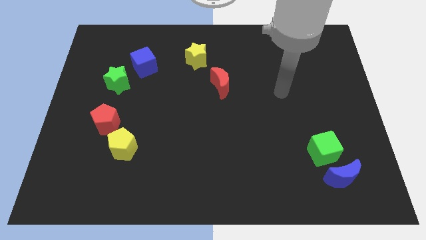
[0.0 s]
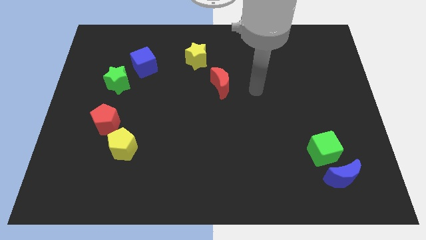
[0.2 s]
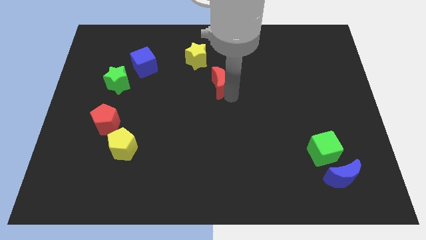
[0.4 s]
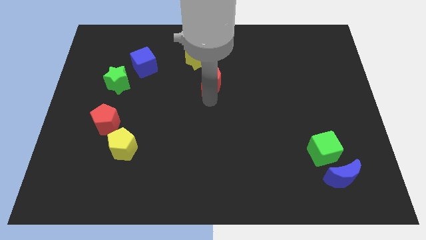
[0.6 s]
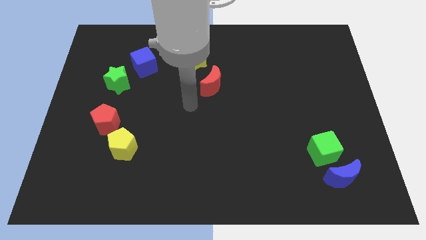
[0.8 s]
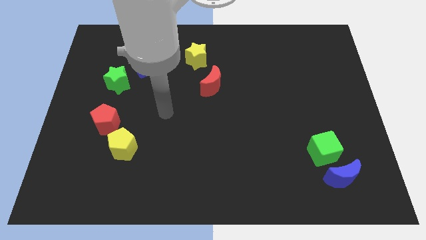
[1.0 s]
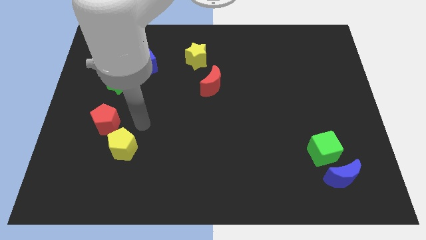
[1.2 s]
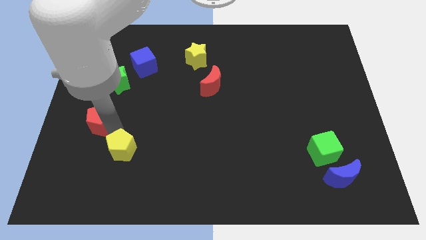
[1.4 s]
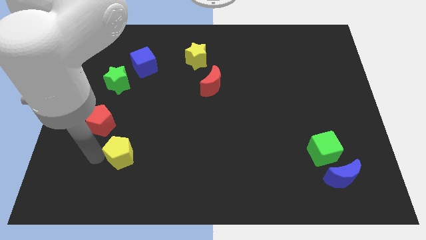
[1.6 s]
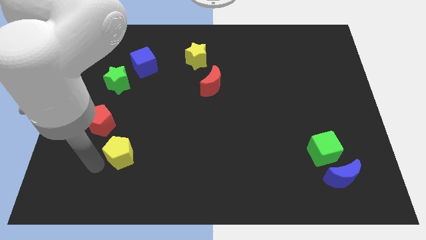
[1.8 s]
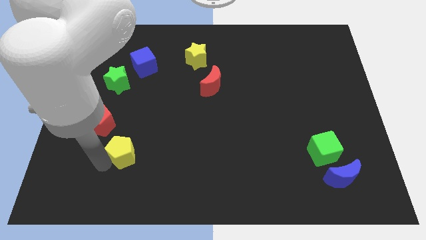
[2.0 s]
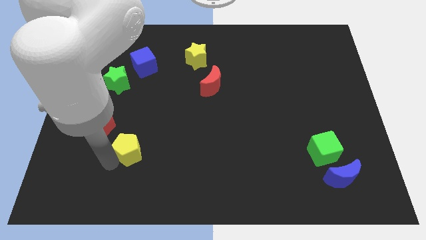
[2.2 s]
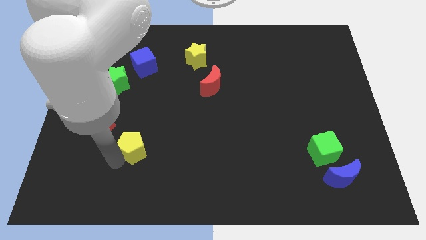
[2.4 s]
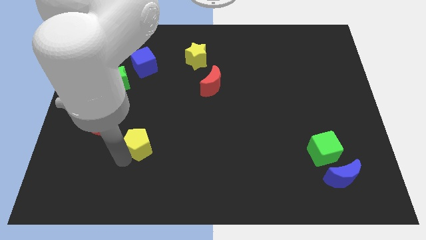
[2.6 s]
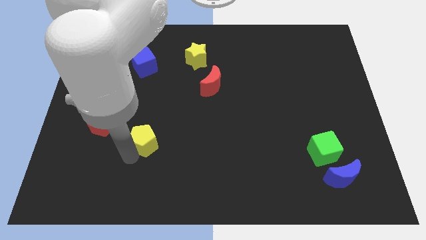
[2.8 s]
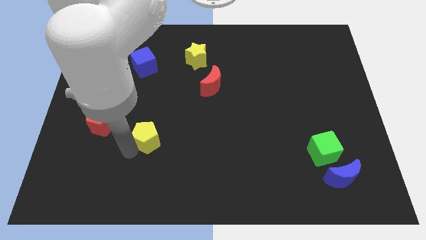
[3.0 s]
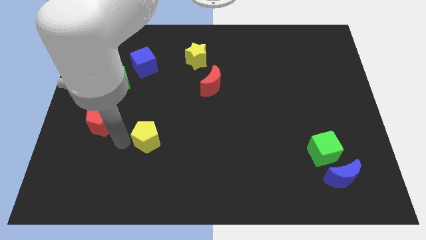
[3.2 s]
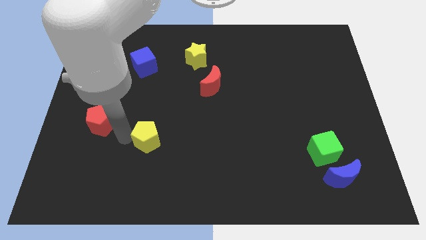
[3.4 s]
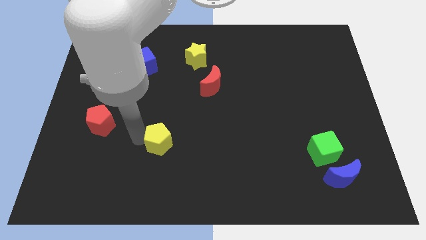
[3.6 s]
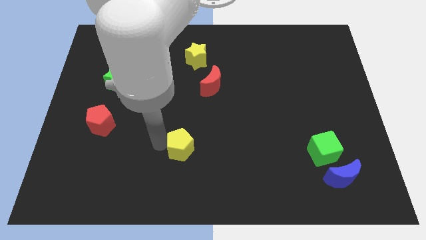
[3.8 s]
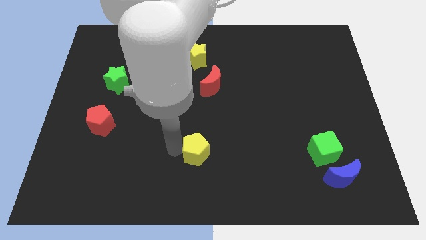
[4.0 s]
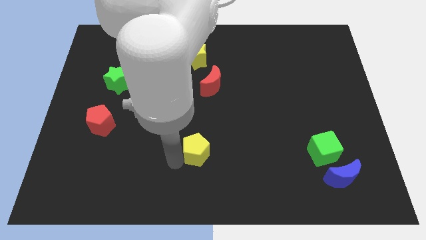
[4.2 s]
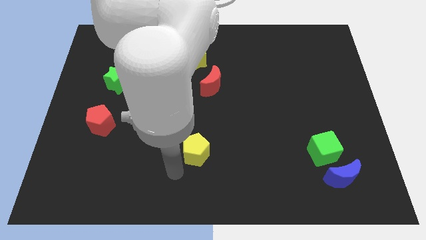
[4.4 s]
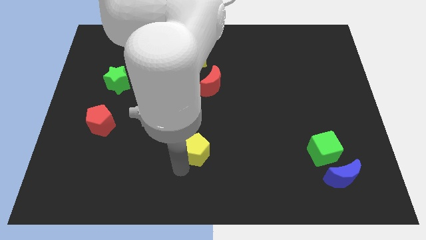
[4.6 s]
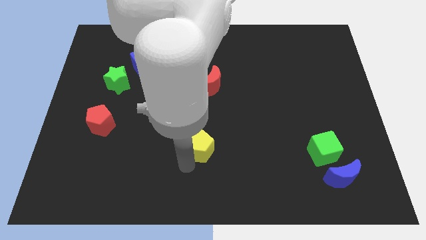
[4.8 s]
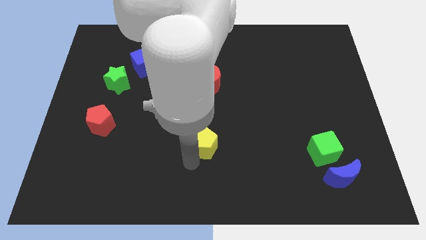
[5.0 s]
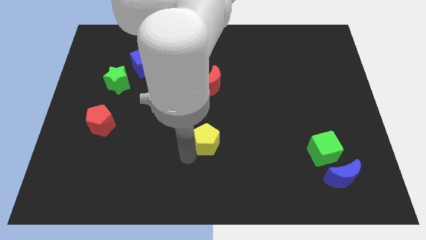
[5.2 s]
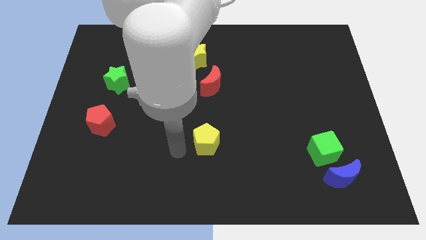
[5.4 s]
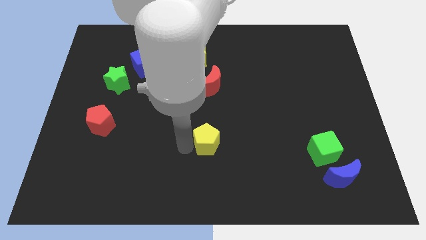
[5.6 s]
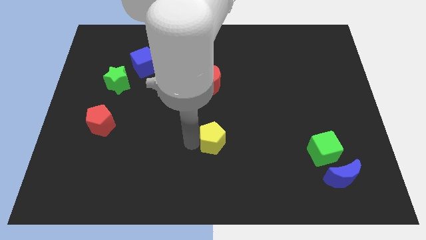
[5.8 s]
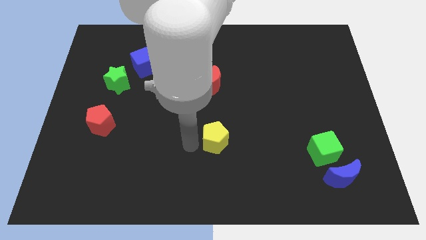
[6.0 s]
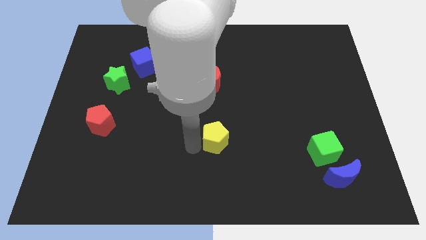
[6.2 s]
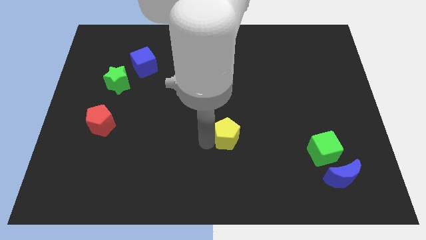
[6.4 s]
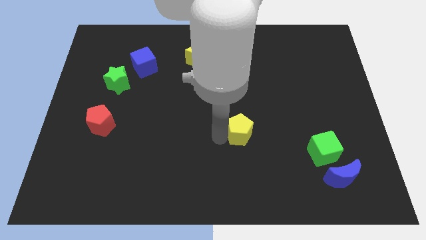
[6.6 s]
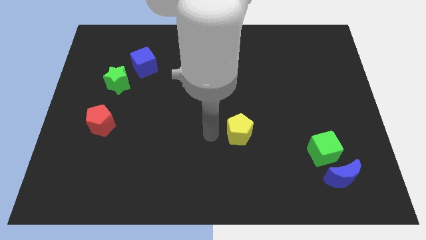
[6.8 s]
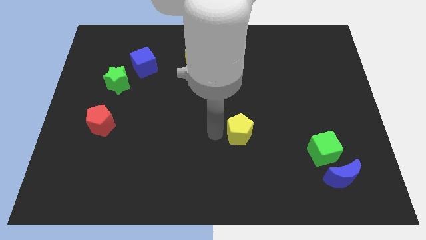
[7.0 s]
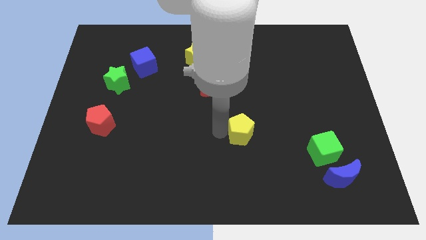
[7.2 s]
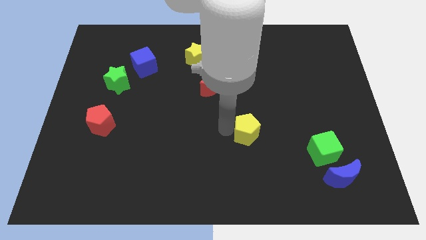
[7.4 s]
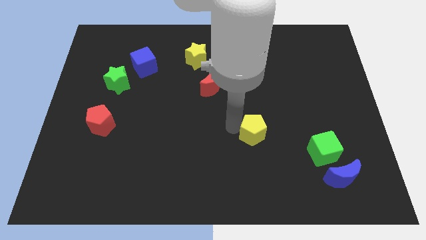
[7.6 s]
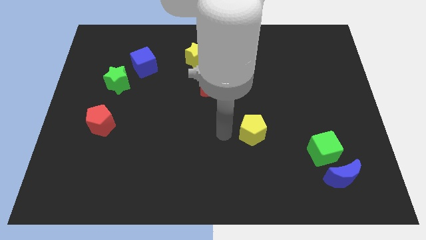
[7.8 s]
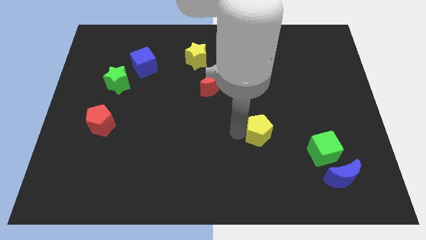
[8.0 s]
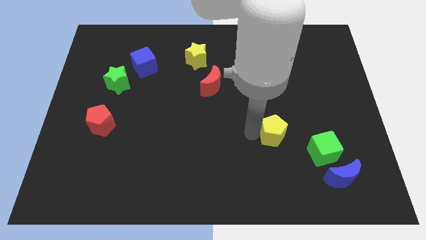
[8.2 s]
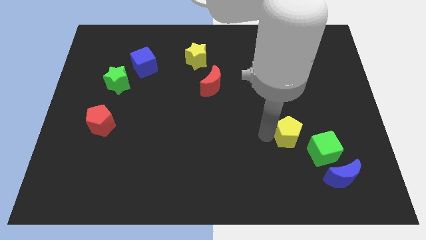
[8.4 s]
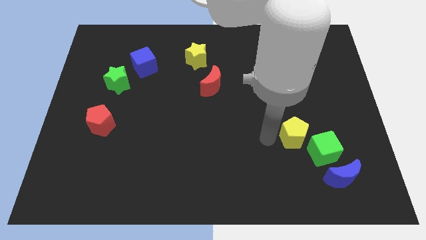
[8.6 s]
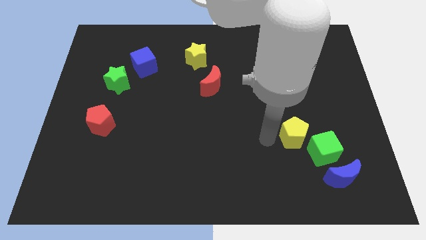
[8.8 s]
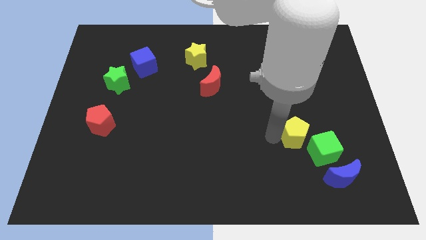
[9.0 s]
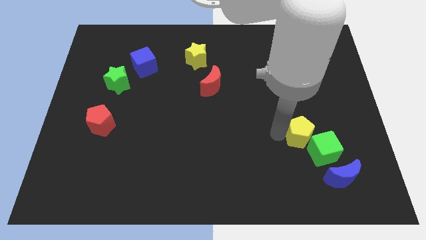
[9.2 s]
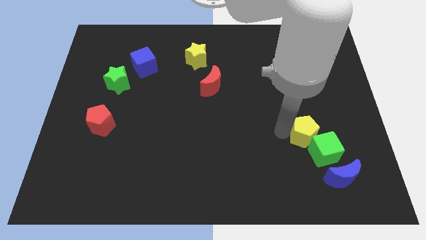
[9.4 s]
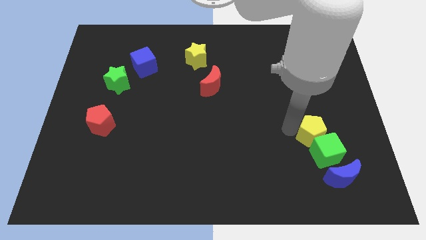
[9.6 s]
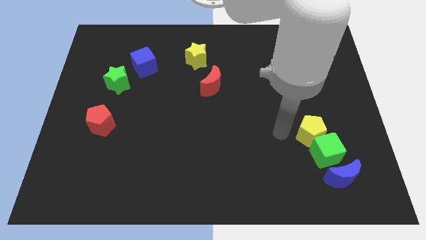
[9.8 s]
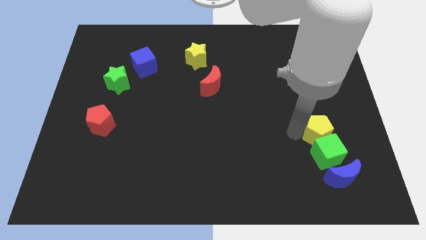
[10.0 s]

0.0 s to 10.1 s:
move the yellow pentagon to the top right of the green cube
